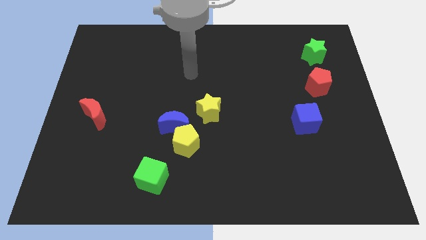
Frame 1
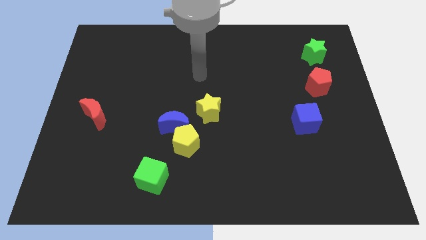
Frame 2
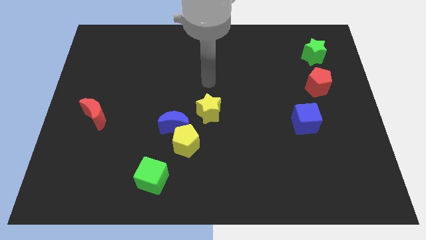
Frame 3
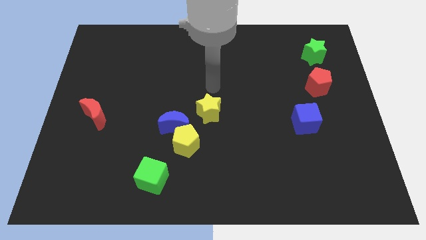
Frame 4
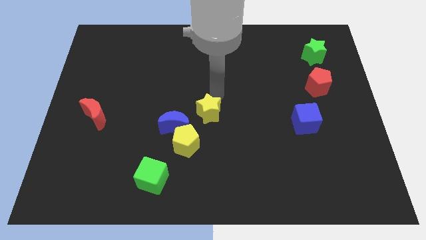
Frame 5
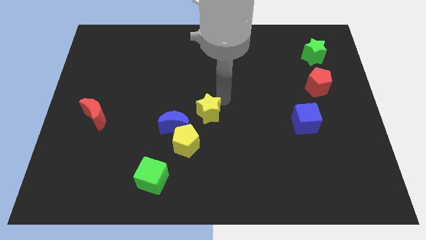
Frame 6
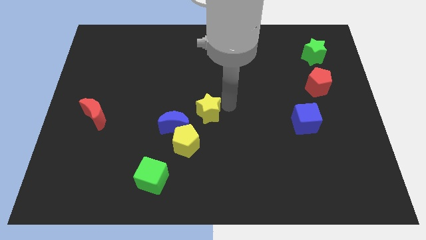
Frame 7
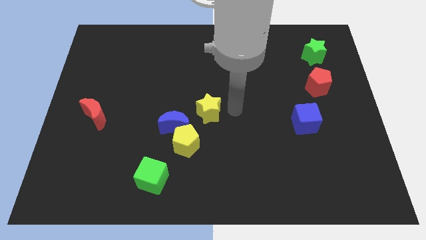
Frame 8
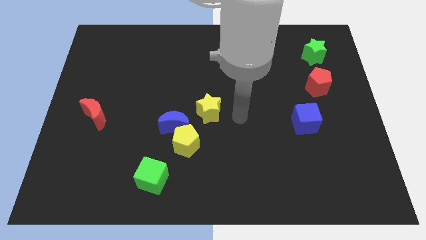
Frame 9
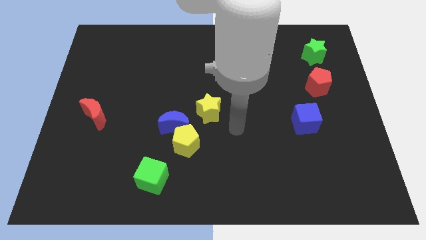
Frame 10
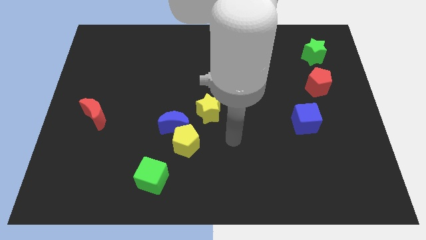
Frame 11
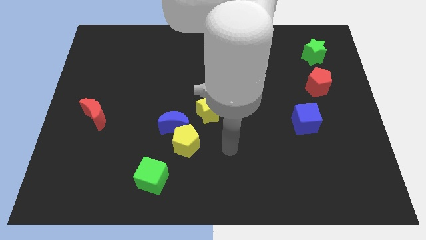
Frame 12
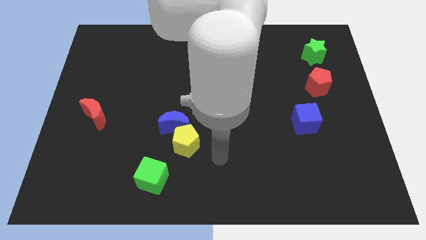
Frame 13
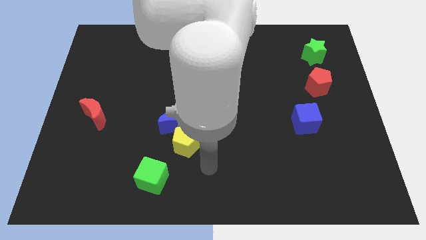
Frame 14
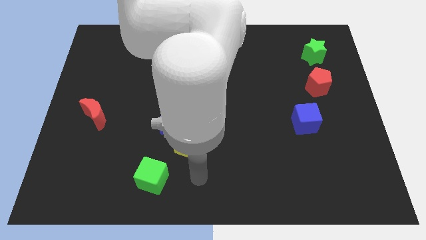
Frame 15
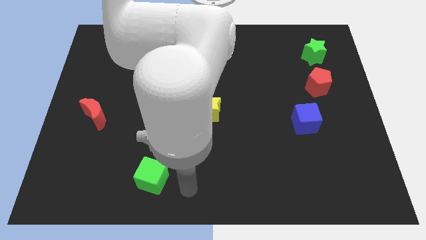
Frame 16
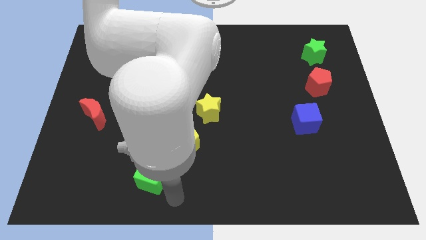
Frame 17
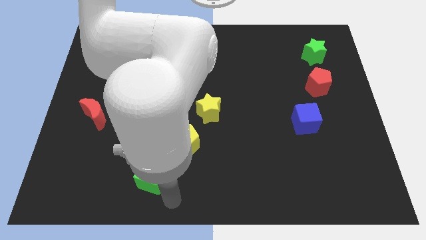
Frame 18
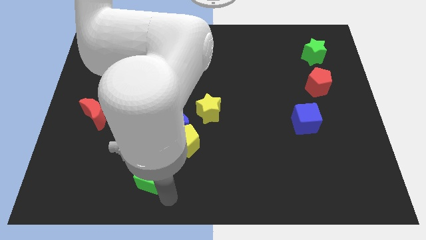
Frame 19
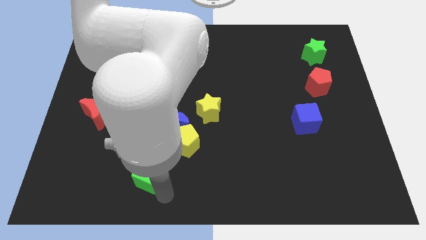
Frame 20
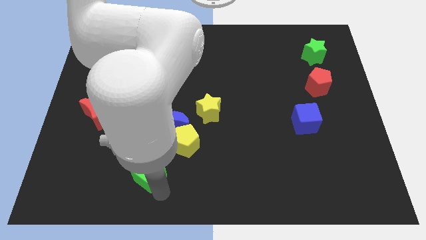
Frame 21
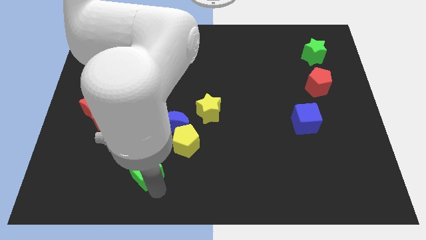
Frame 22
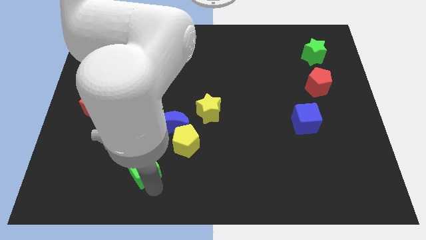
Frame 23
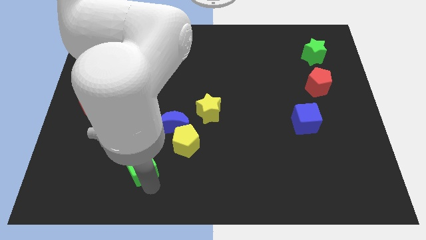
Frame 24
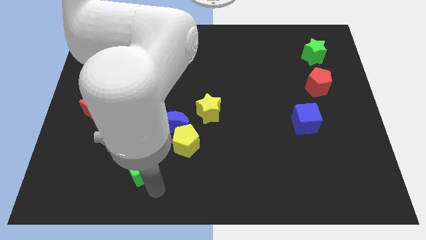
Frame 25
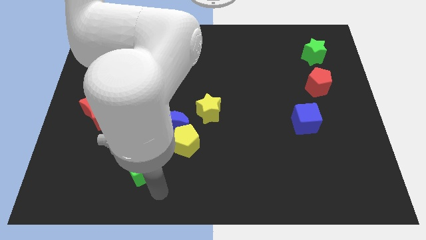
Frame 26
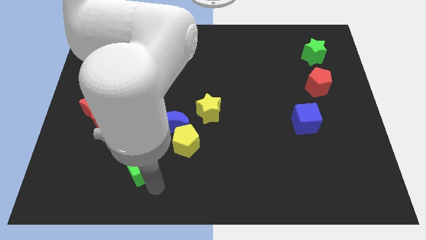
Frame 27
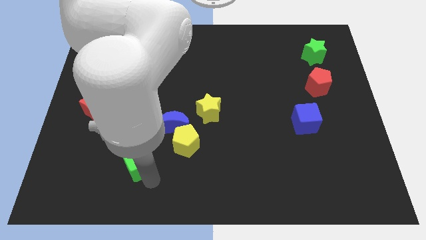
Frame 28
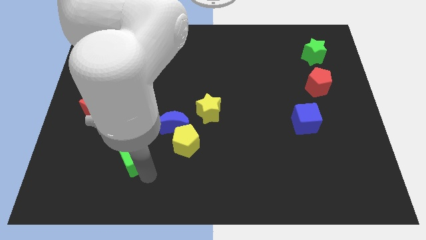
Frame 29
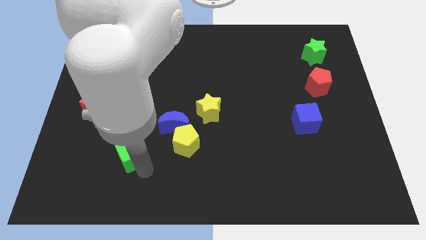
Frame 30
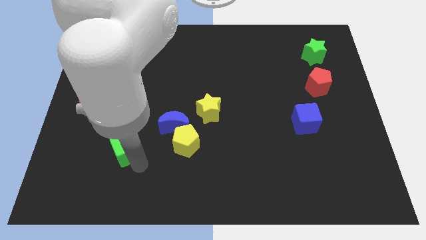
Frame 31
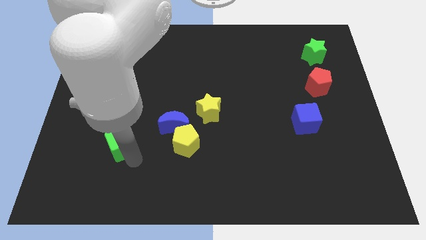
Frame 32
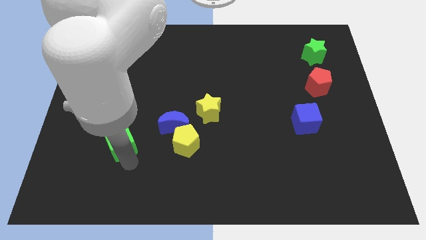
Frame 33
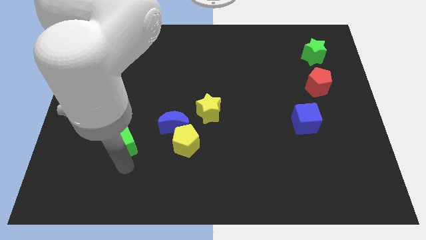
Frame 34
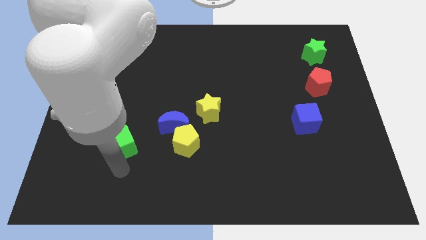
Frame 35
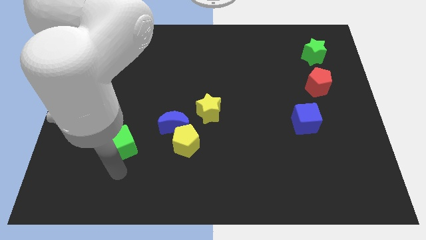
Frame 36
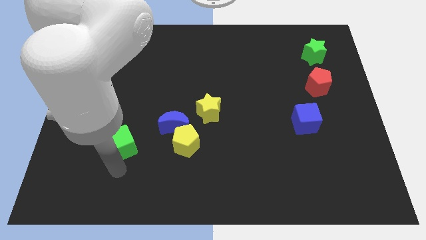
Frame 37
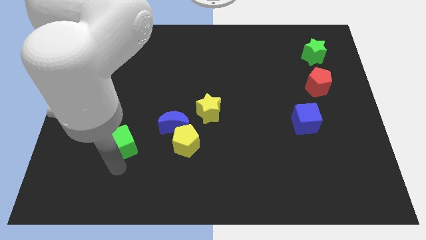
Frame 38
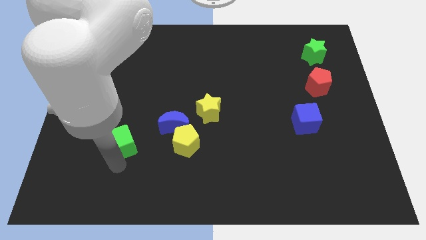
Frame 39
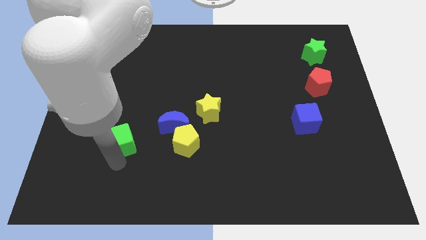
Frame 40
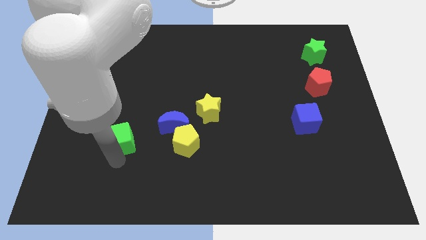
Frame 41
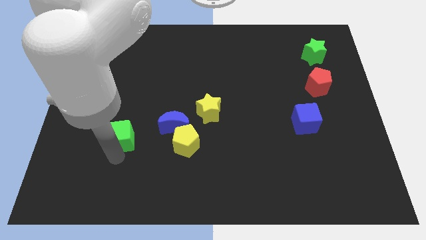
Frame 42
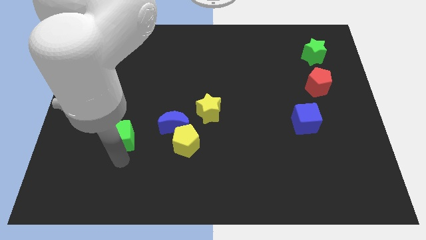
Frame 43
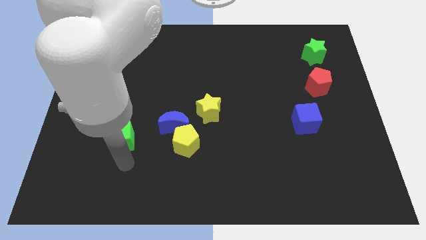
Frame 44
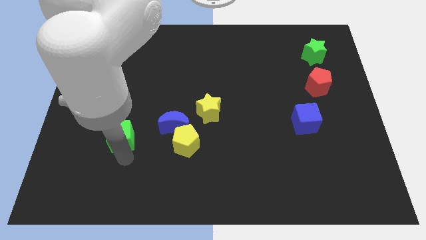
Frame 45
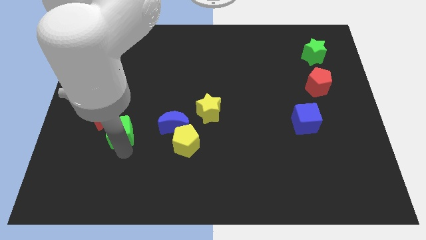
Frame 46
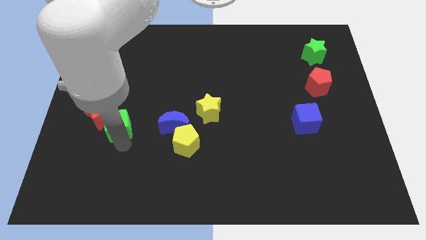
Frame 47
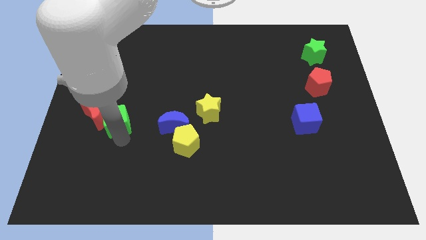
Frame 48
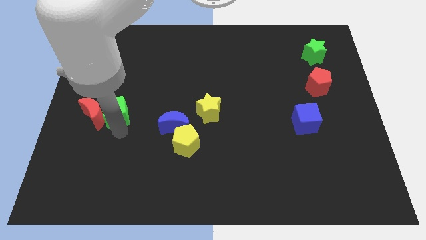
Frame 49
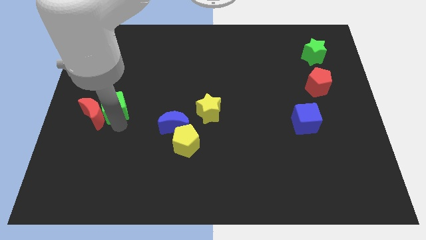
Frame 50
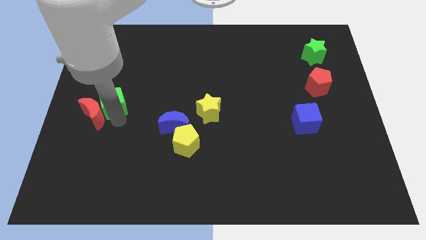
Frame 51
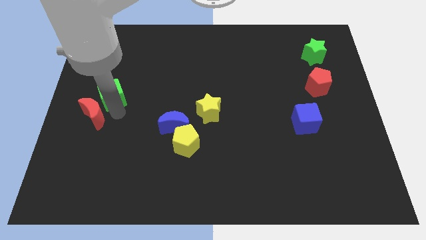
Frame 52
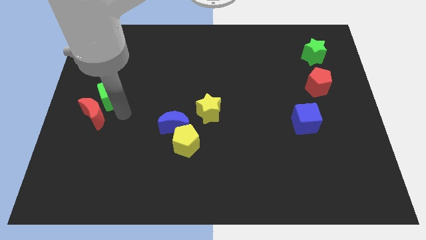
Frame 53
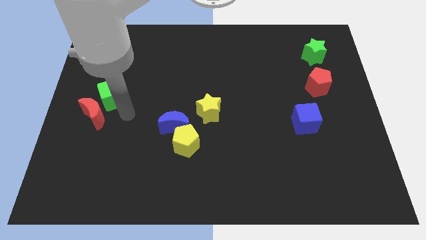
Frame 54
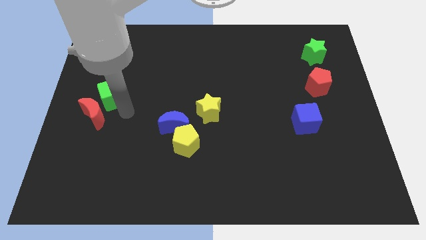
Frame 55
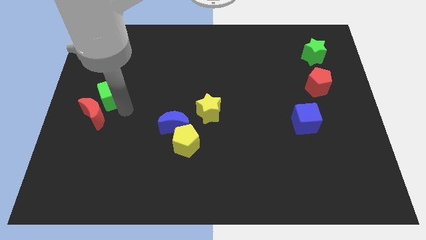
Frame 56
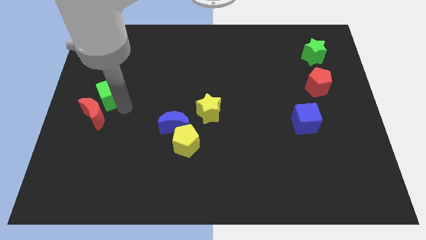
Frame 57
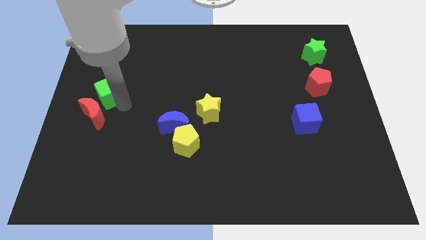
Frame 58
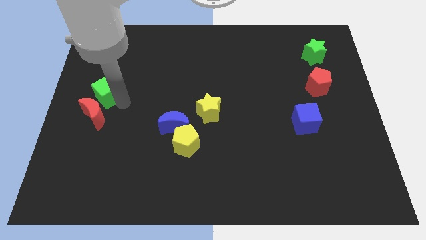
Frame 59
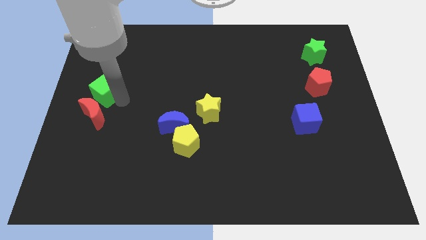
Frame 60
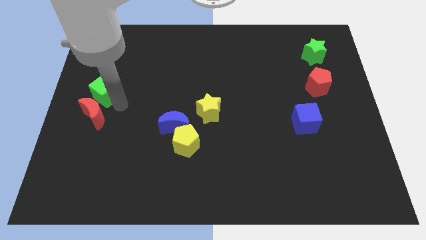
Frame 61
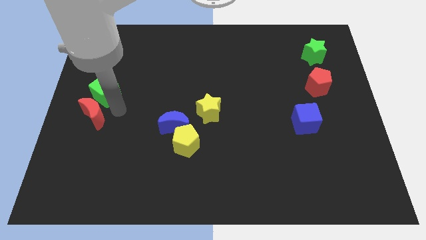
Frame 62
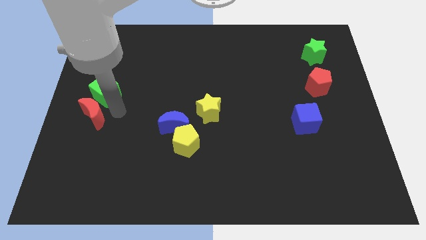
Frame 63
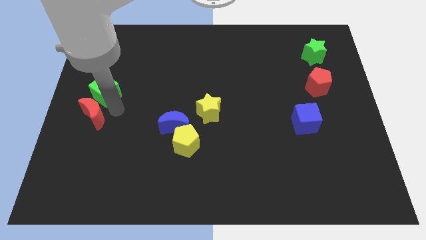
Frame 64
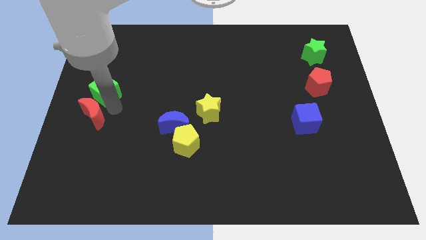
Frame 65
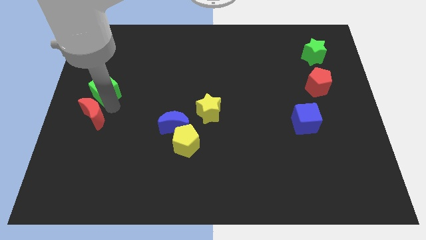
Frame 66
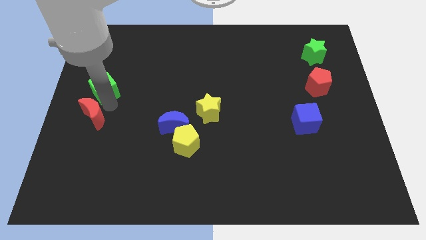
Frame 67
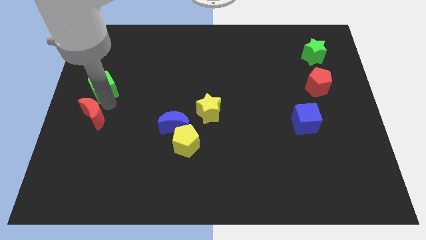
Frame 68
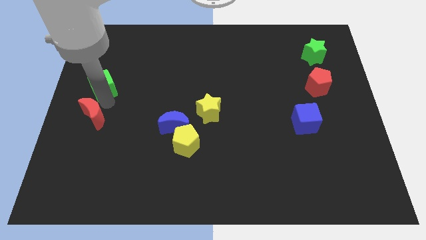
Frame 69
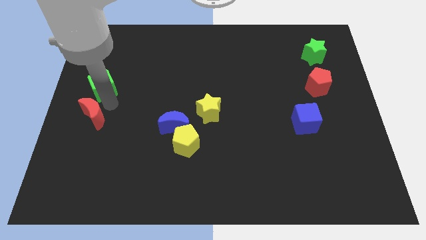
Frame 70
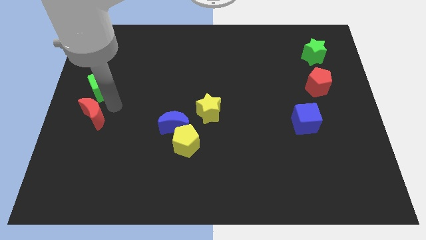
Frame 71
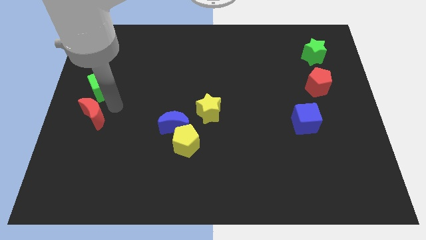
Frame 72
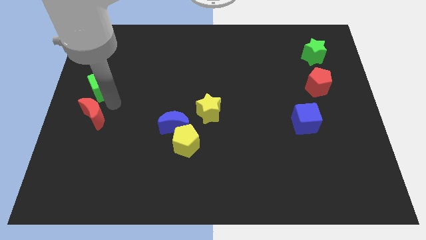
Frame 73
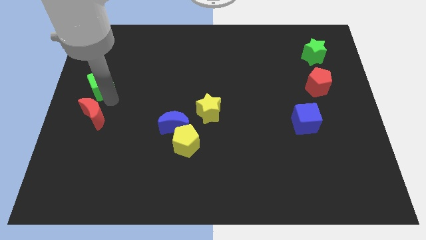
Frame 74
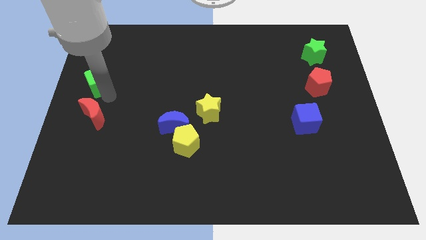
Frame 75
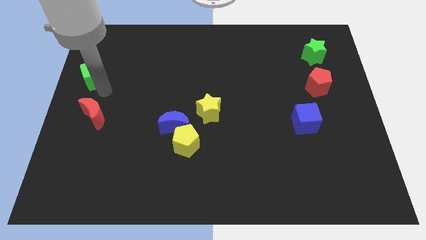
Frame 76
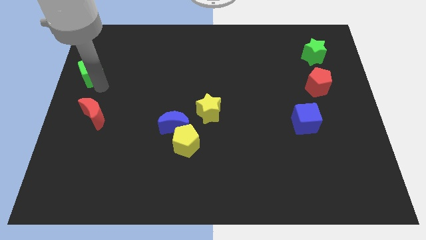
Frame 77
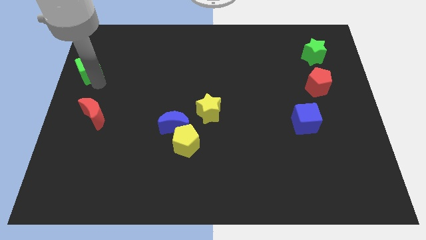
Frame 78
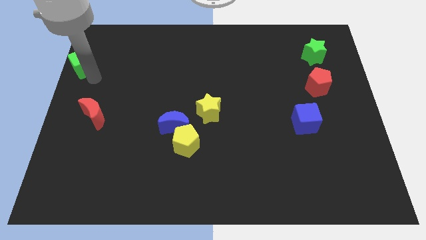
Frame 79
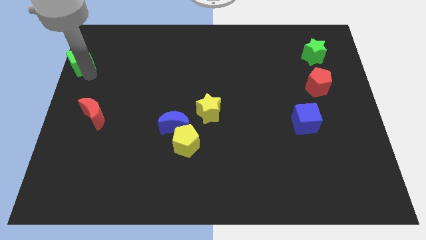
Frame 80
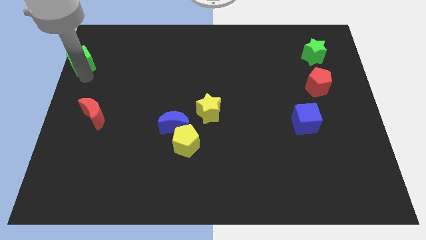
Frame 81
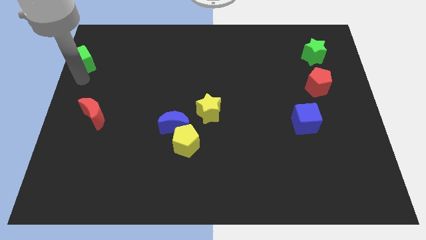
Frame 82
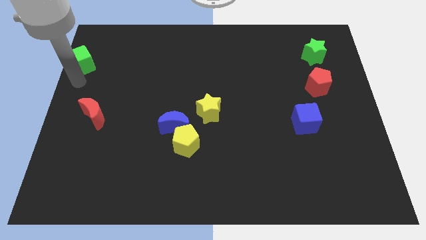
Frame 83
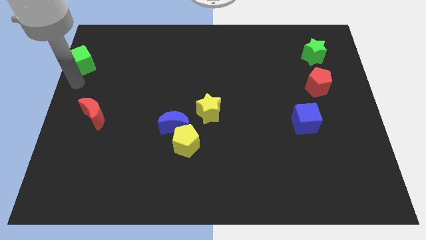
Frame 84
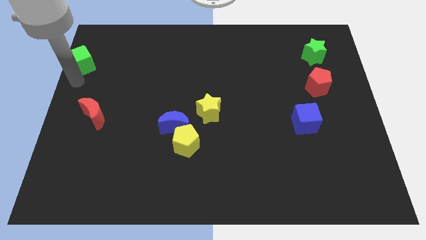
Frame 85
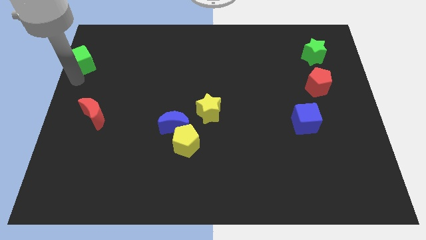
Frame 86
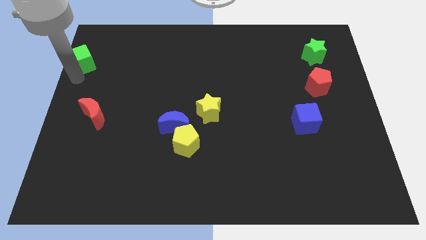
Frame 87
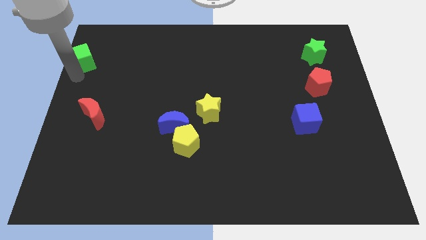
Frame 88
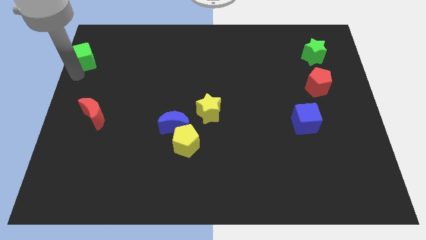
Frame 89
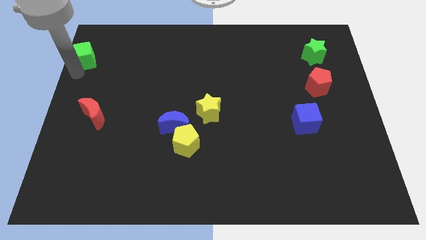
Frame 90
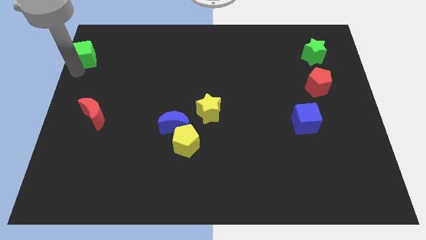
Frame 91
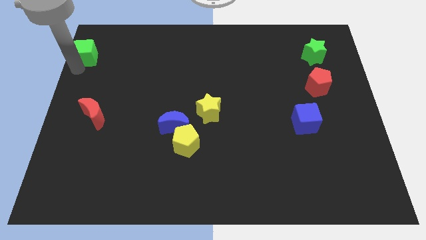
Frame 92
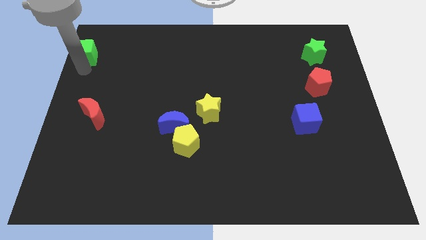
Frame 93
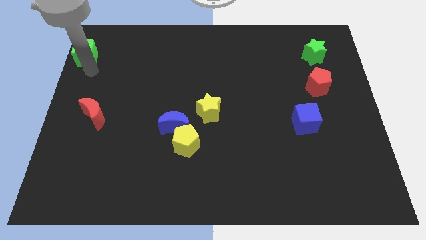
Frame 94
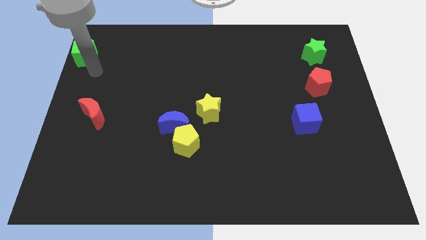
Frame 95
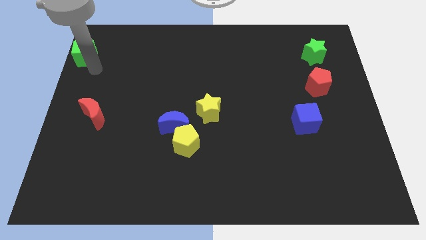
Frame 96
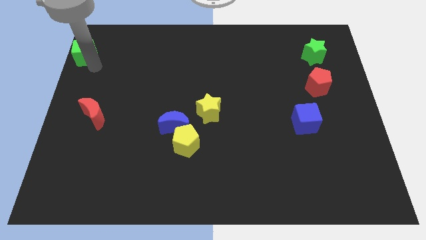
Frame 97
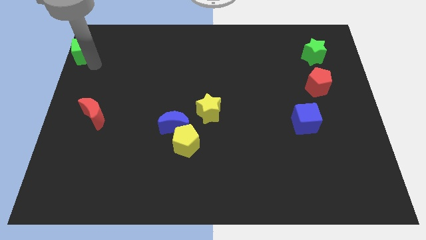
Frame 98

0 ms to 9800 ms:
slide the green cube to the top left of the board
